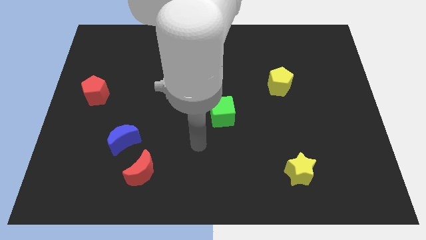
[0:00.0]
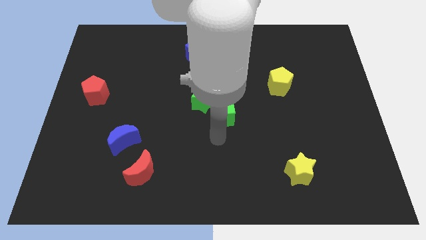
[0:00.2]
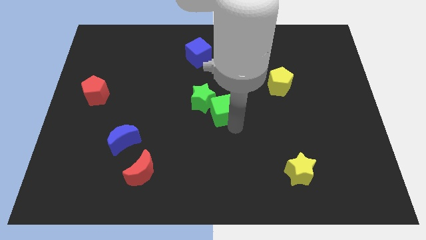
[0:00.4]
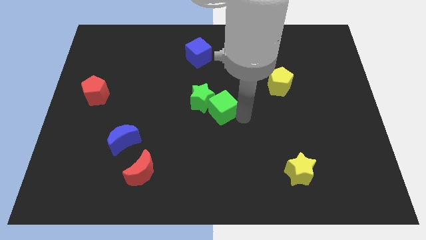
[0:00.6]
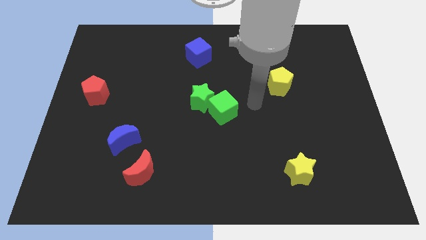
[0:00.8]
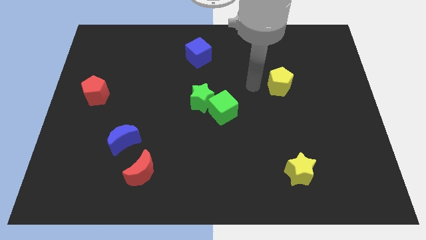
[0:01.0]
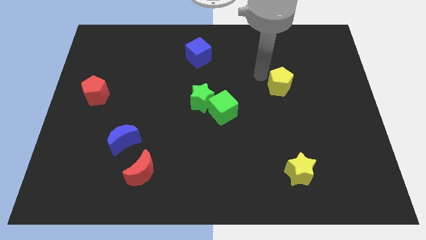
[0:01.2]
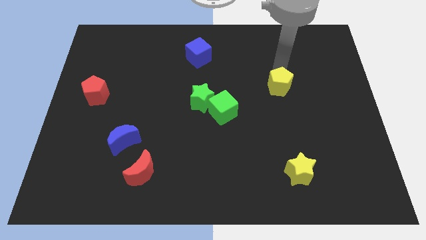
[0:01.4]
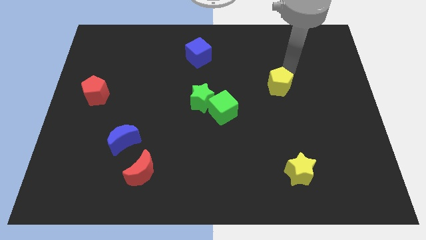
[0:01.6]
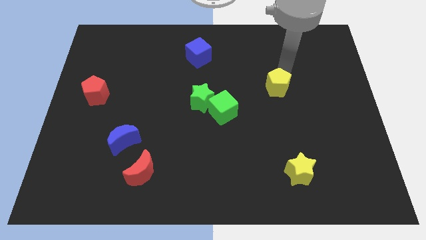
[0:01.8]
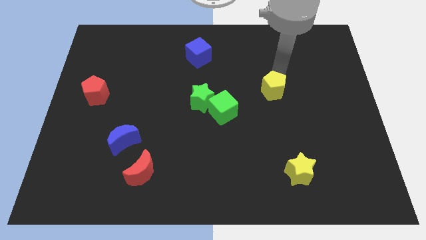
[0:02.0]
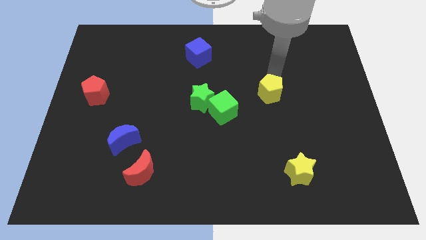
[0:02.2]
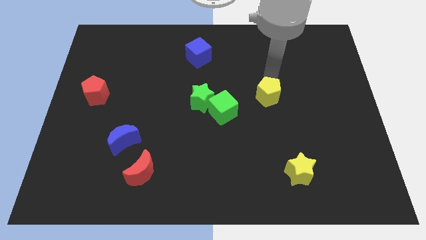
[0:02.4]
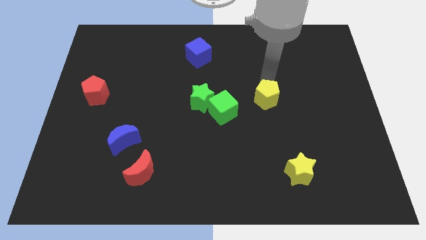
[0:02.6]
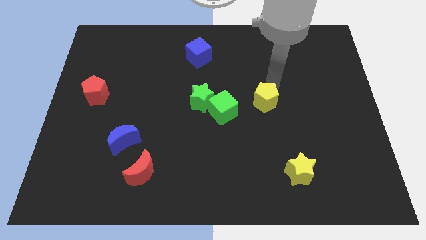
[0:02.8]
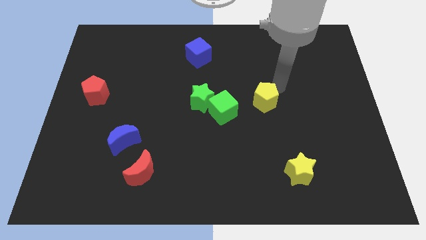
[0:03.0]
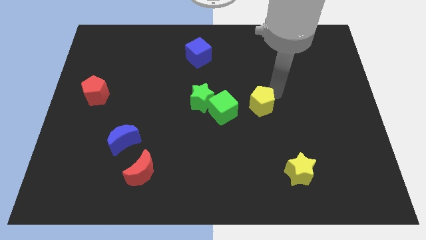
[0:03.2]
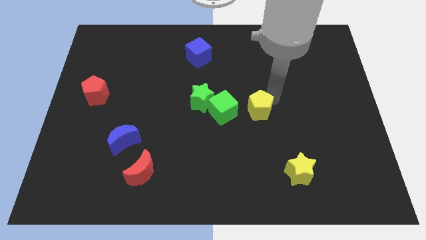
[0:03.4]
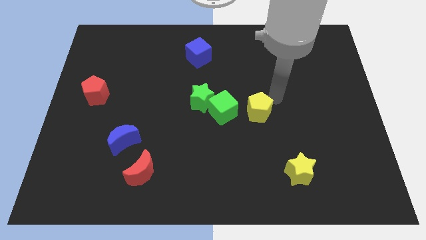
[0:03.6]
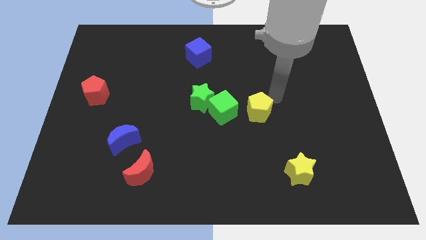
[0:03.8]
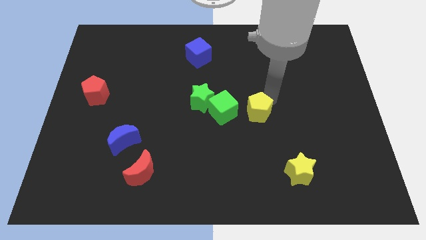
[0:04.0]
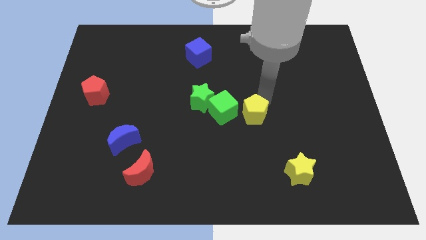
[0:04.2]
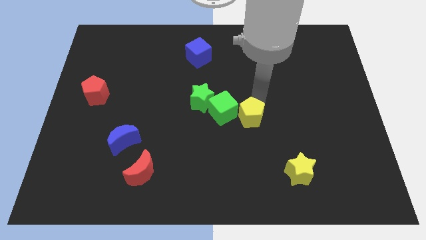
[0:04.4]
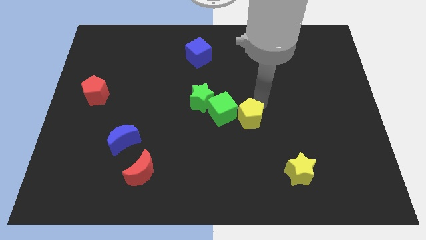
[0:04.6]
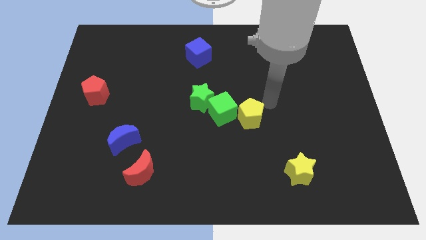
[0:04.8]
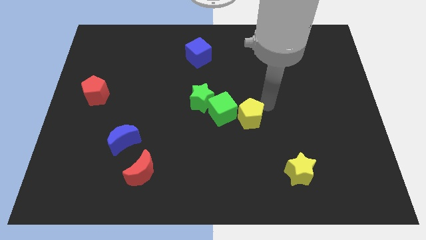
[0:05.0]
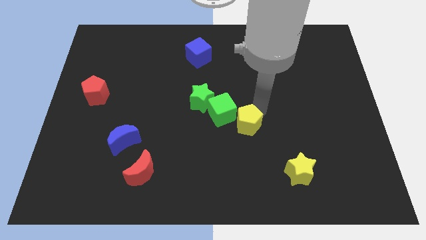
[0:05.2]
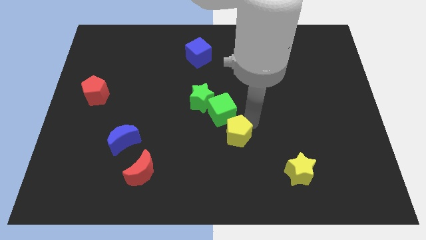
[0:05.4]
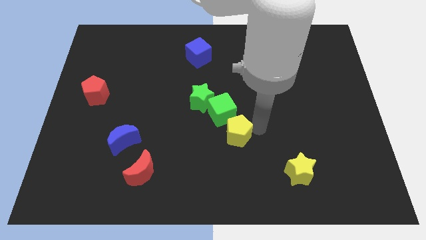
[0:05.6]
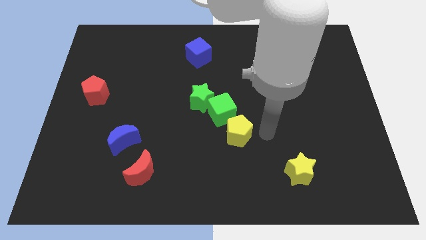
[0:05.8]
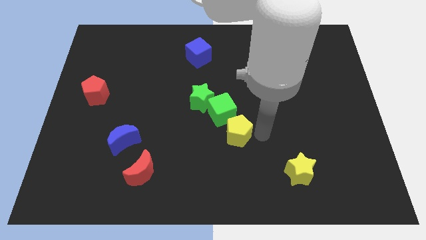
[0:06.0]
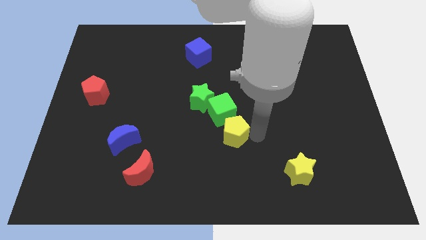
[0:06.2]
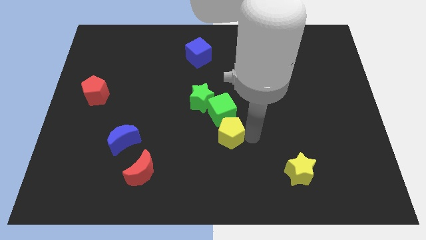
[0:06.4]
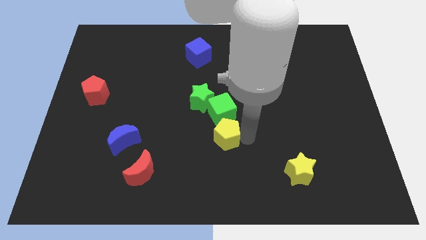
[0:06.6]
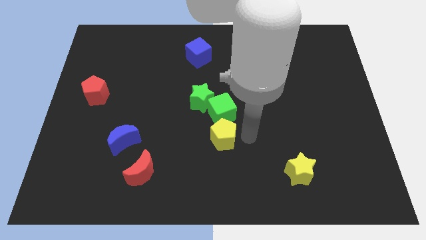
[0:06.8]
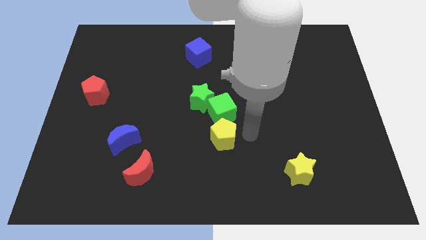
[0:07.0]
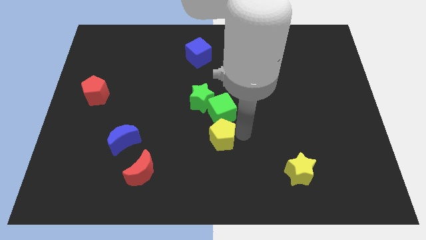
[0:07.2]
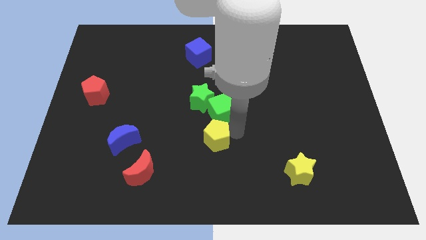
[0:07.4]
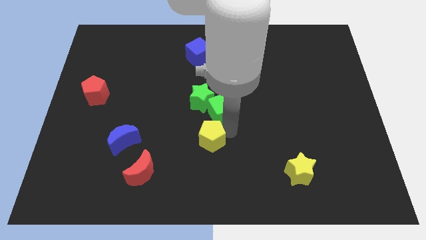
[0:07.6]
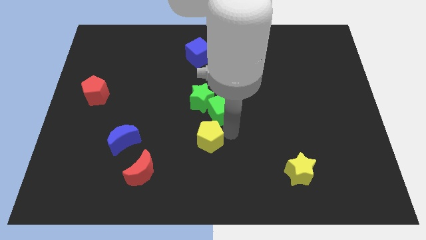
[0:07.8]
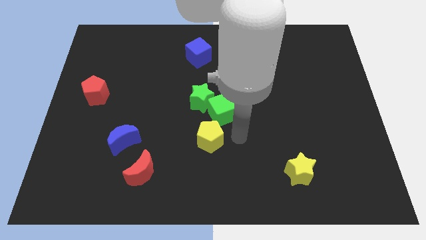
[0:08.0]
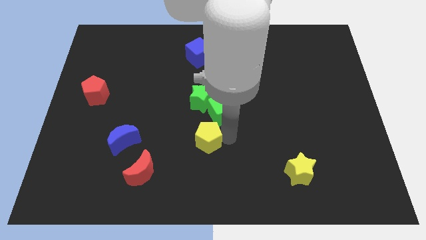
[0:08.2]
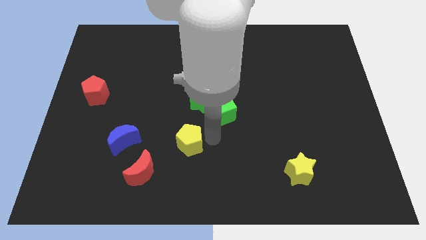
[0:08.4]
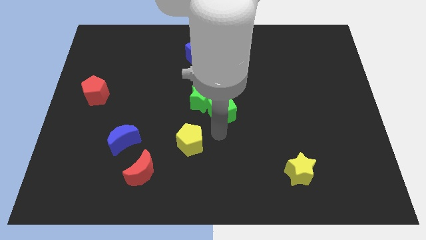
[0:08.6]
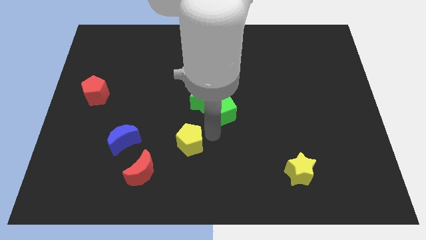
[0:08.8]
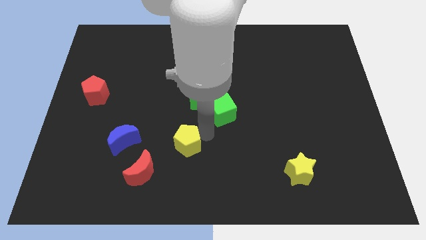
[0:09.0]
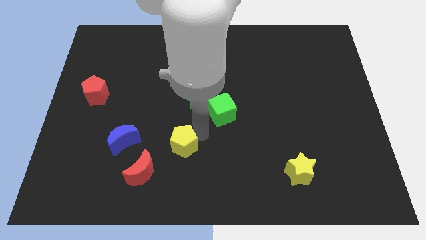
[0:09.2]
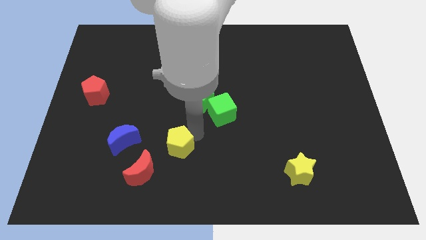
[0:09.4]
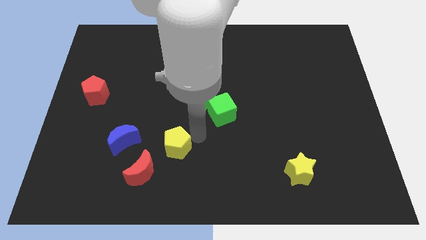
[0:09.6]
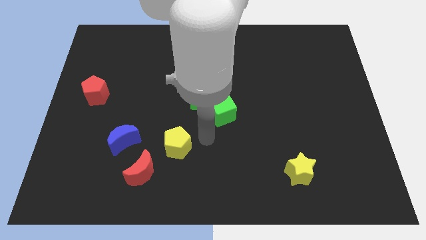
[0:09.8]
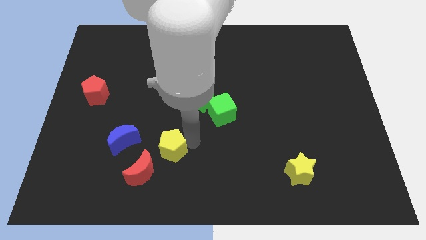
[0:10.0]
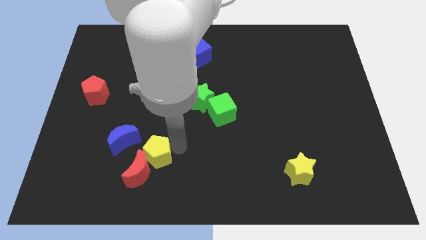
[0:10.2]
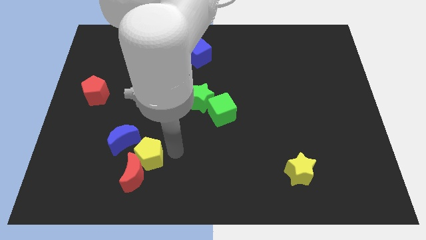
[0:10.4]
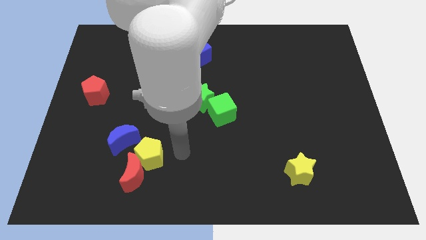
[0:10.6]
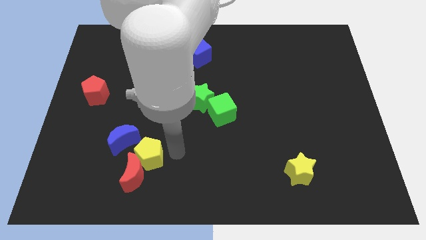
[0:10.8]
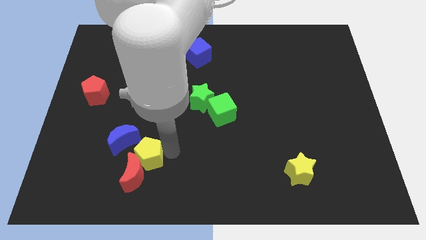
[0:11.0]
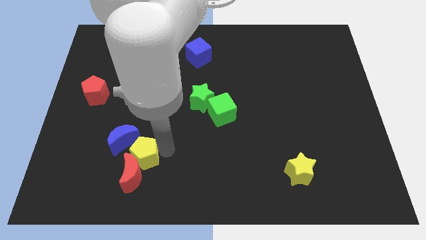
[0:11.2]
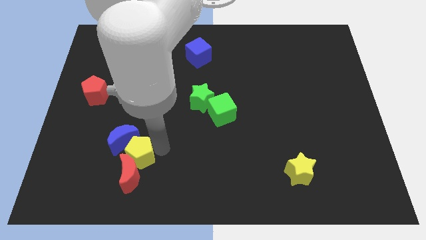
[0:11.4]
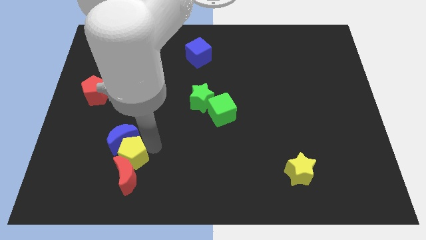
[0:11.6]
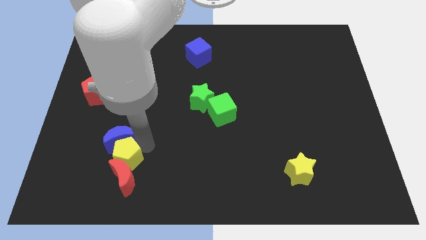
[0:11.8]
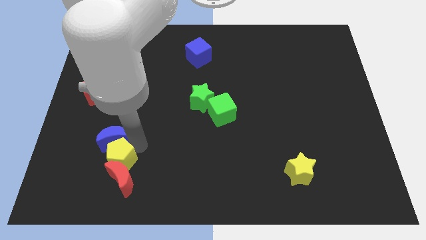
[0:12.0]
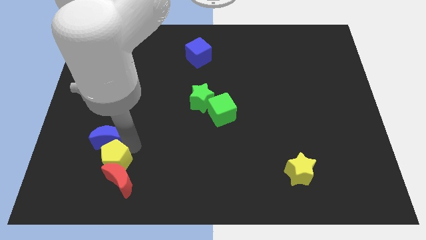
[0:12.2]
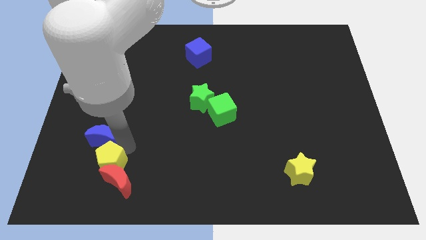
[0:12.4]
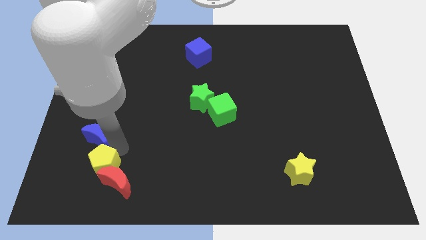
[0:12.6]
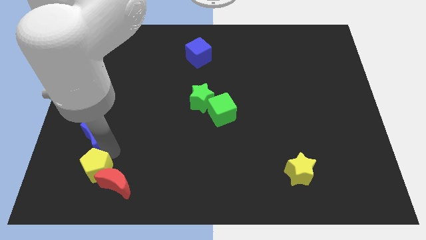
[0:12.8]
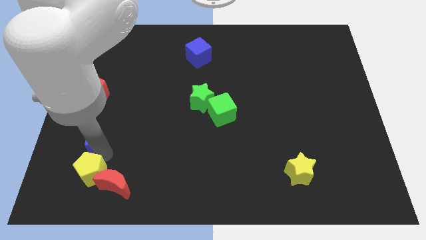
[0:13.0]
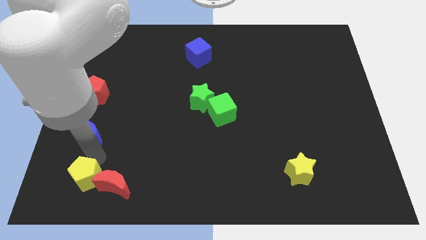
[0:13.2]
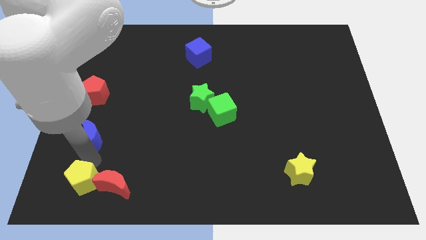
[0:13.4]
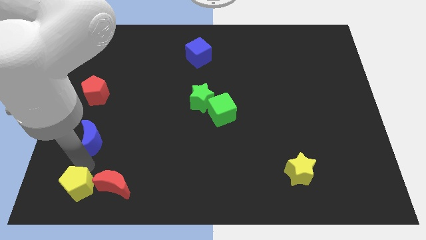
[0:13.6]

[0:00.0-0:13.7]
move the yellow pentagon to the bottom left corner
